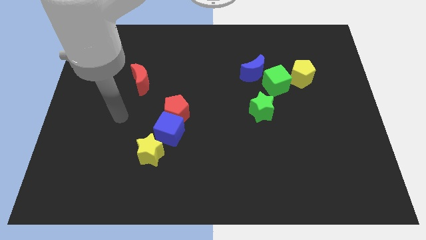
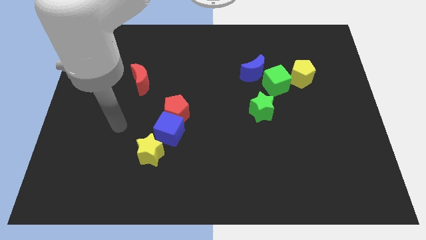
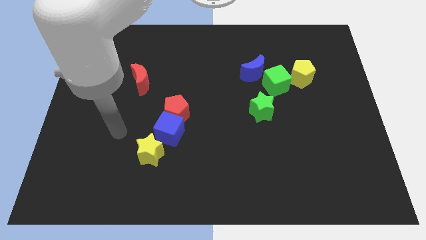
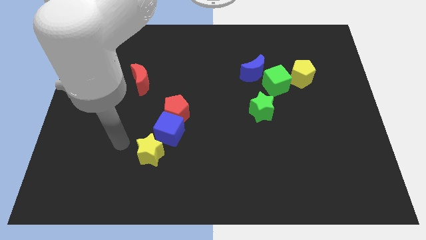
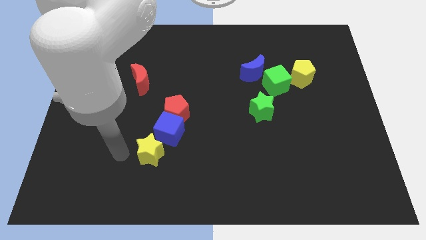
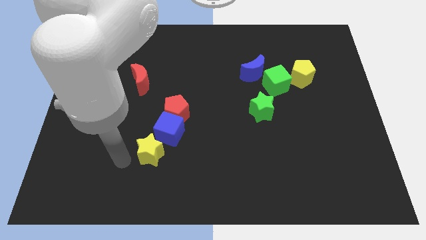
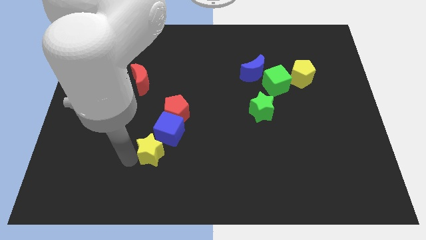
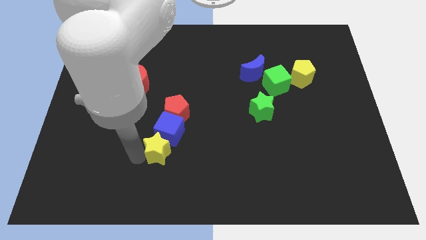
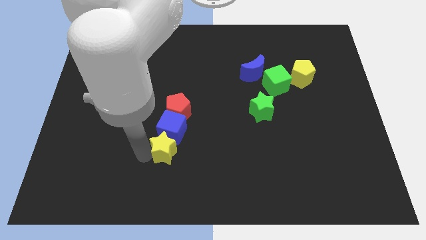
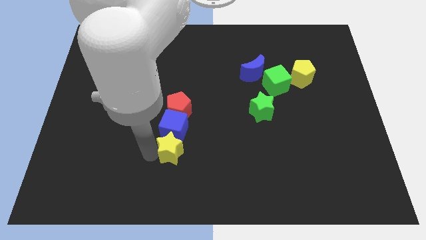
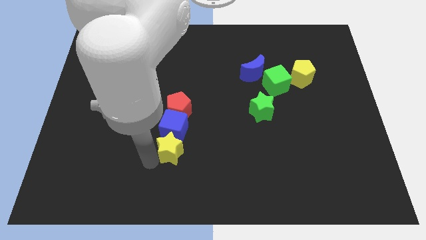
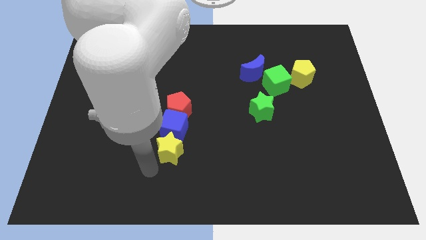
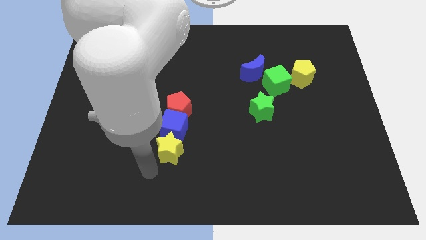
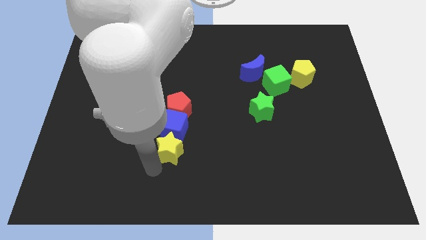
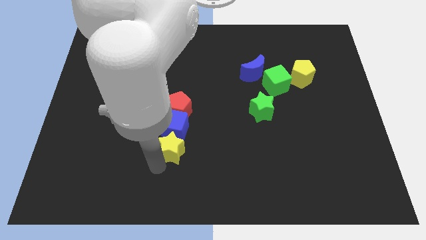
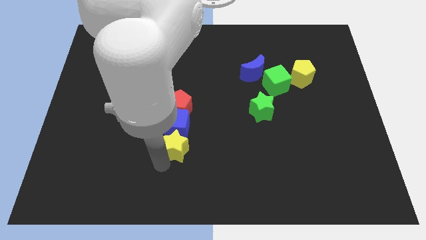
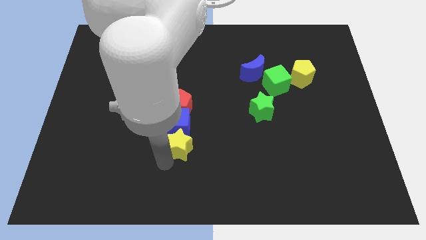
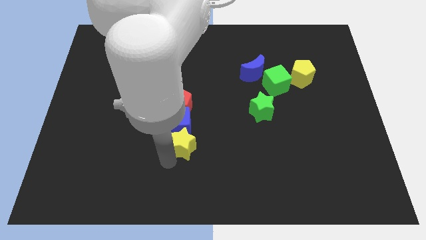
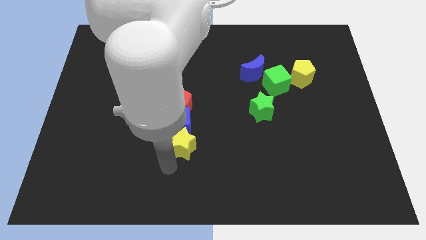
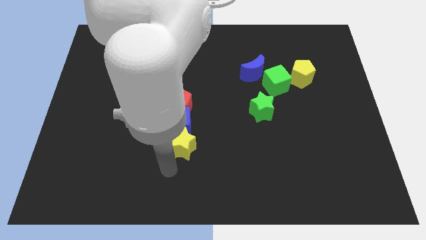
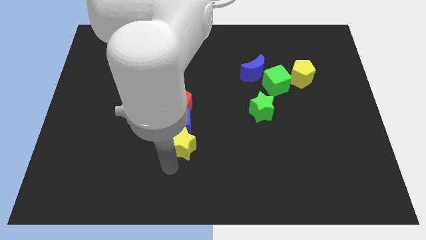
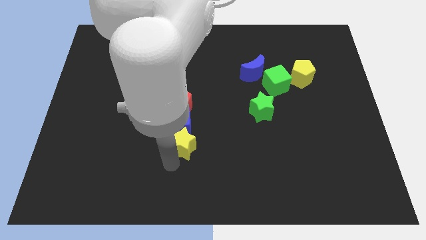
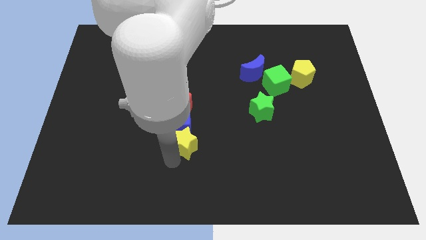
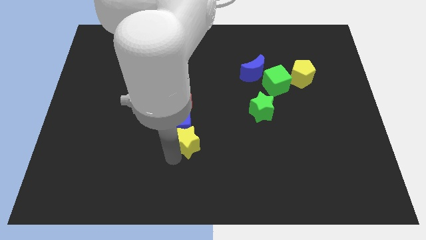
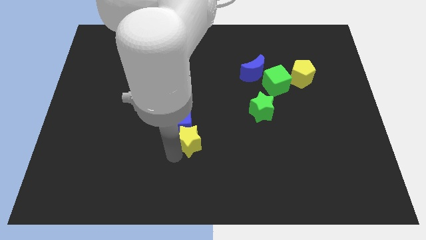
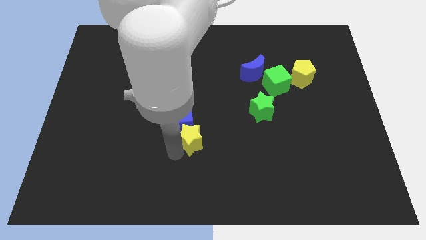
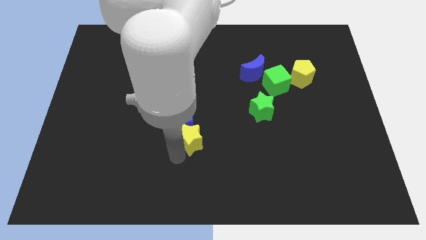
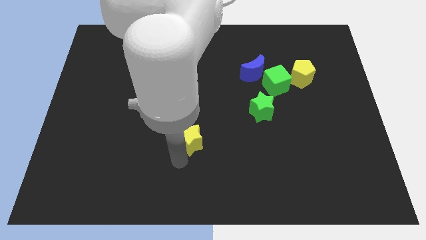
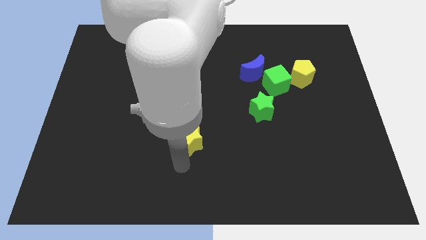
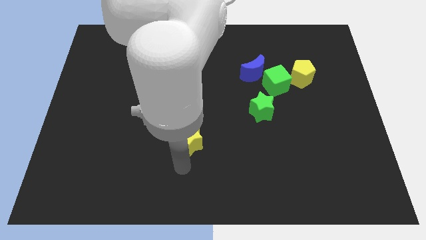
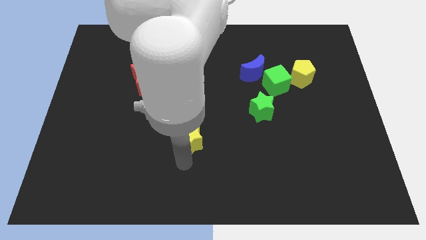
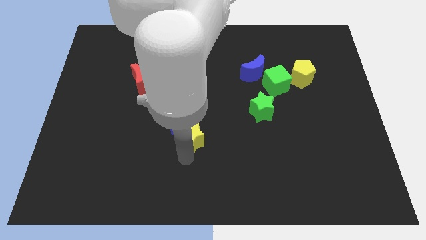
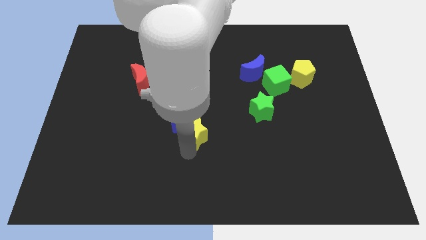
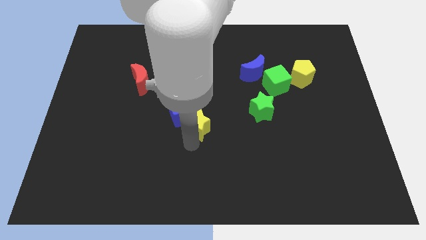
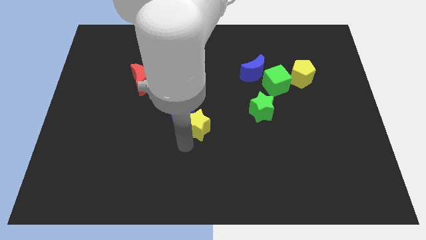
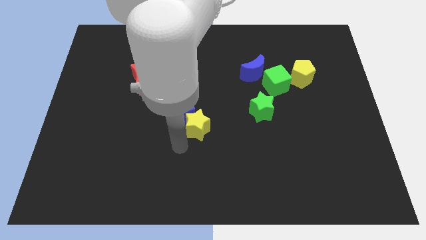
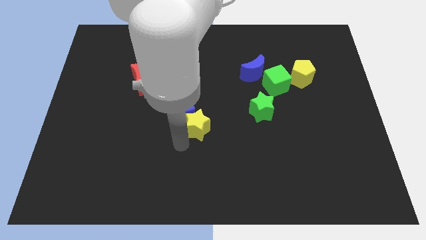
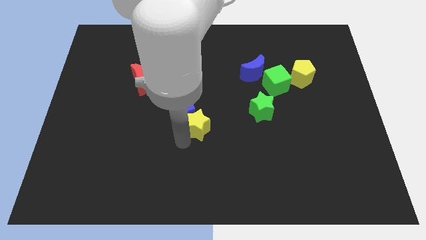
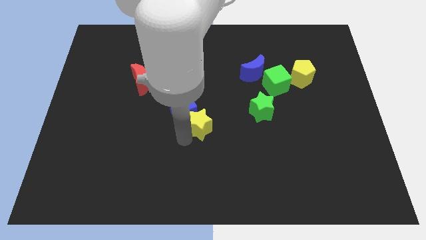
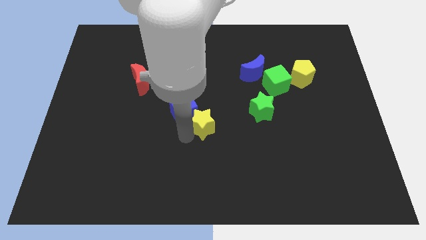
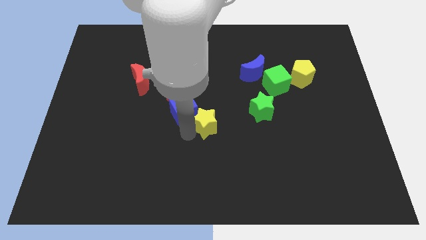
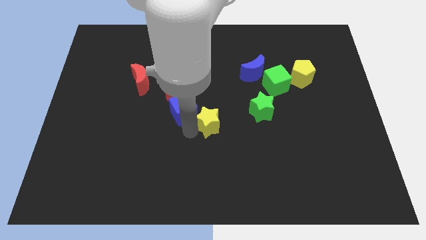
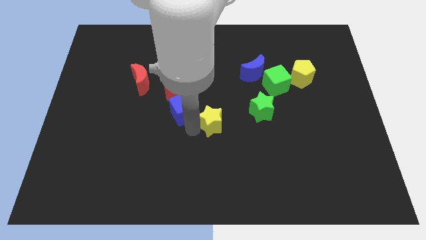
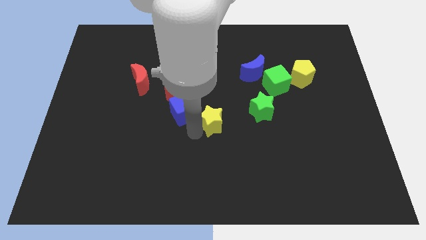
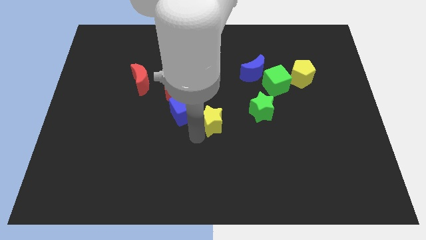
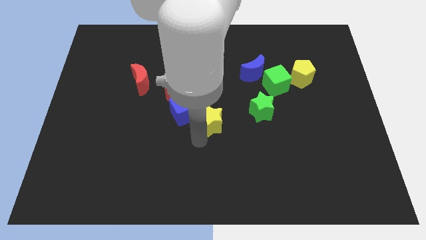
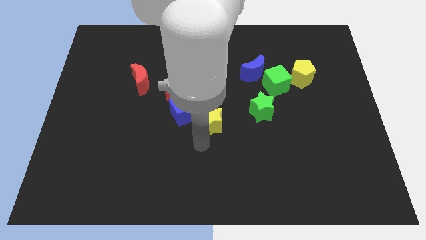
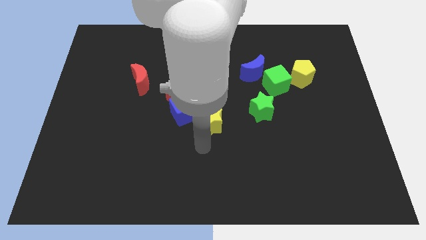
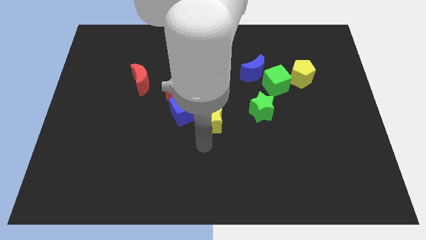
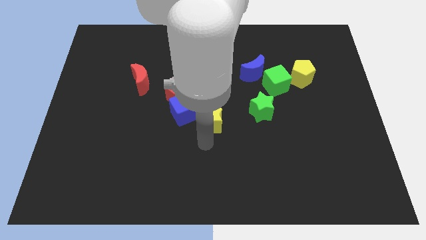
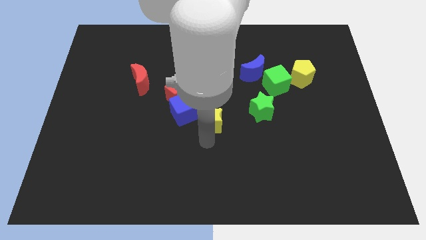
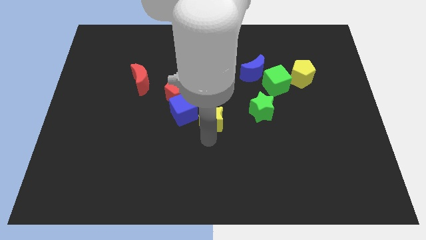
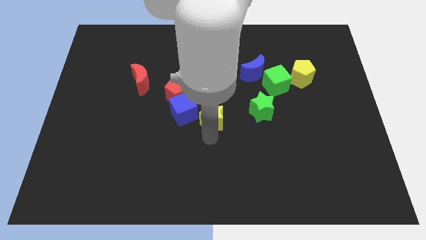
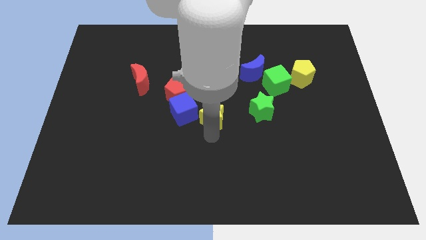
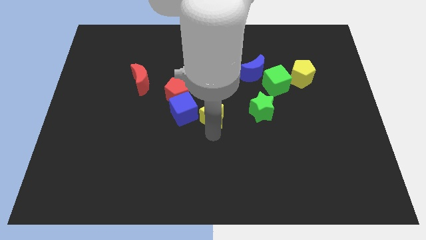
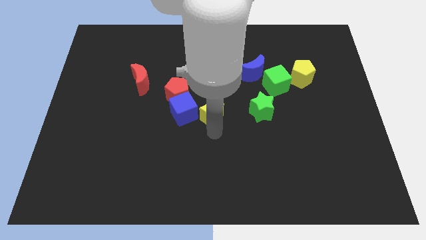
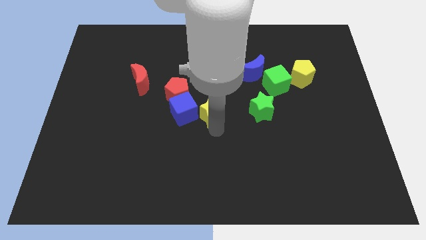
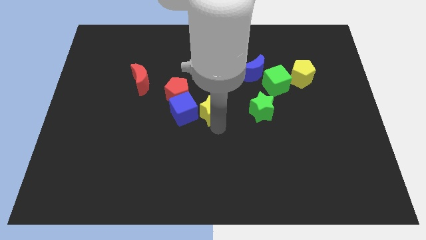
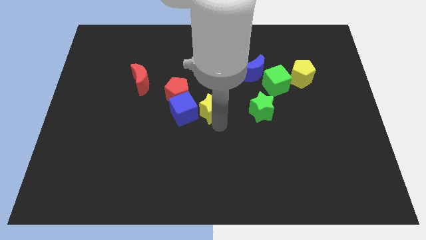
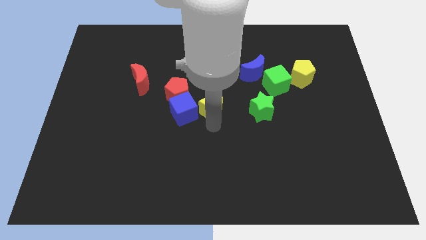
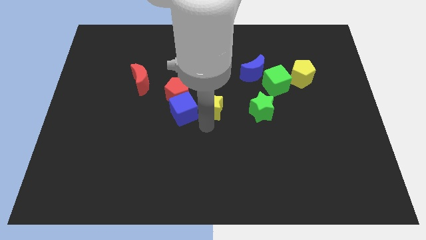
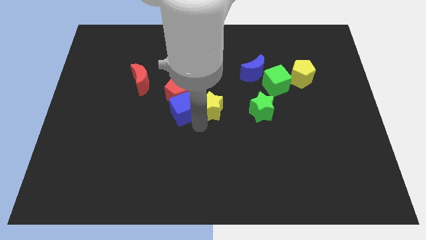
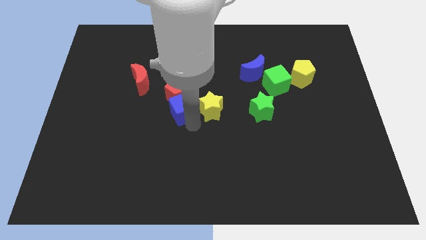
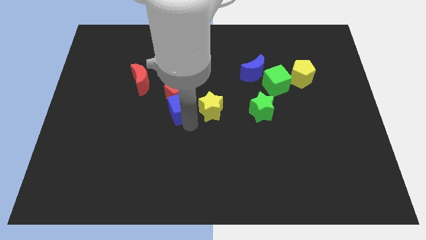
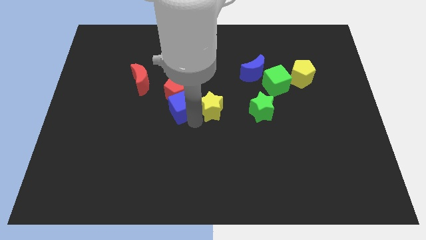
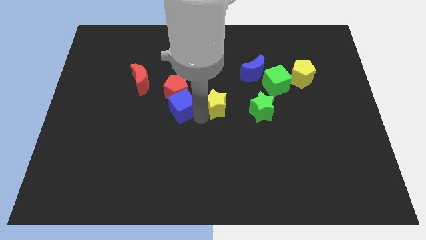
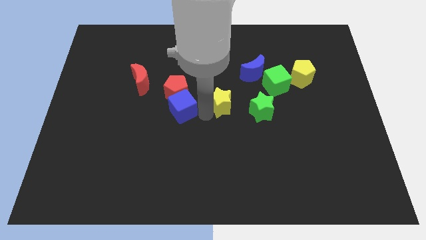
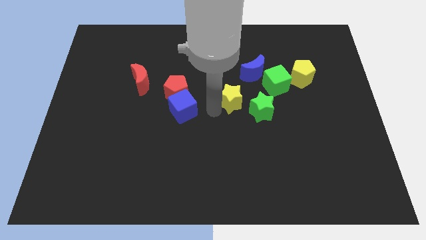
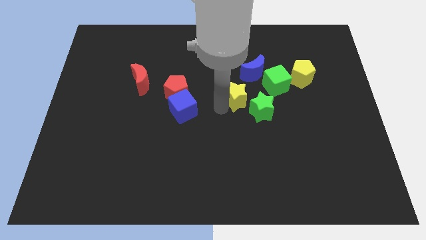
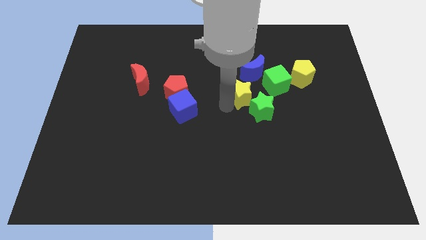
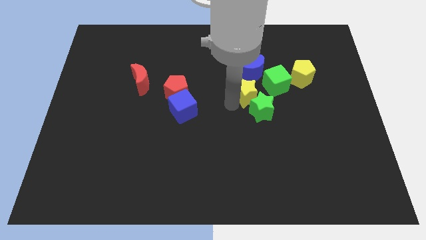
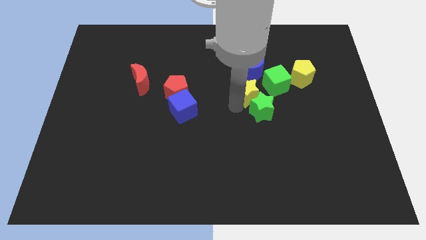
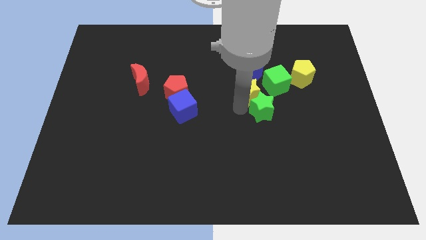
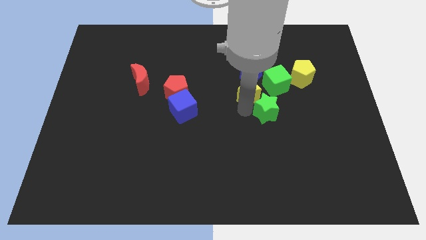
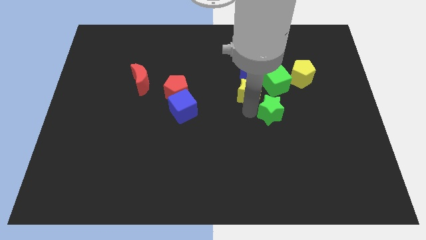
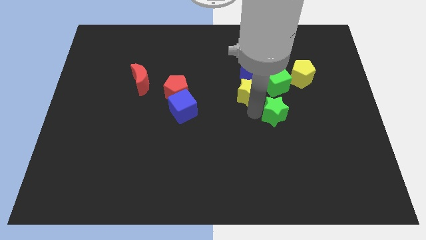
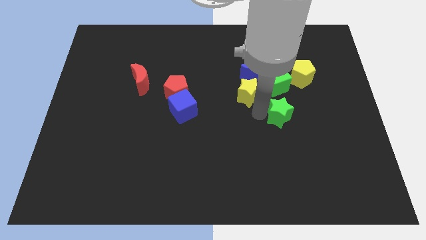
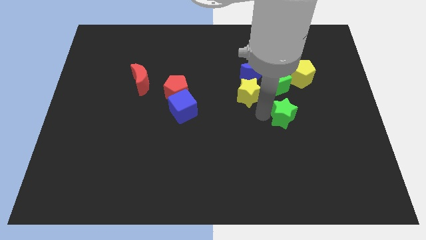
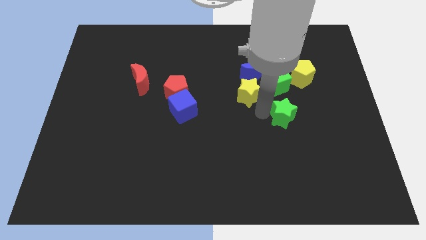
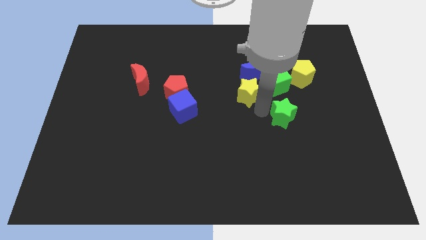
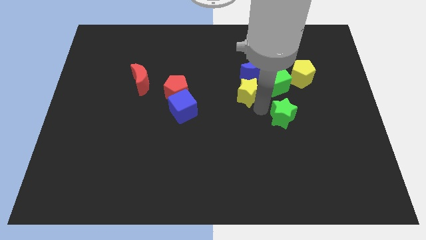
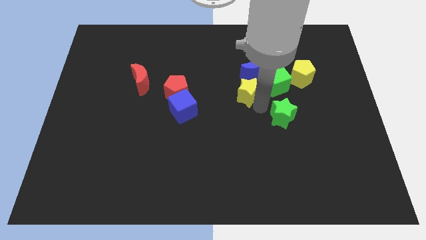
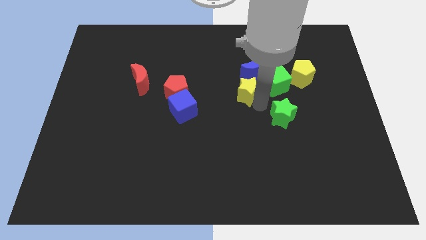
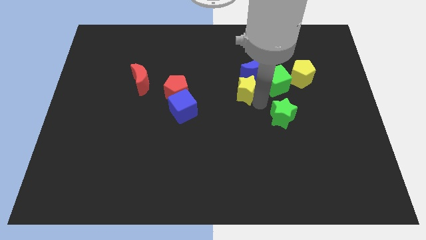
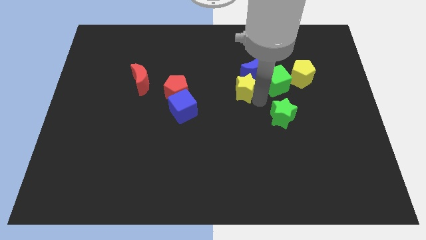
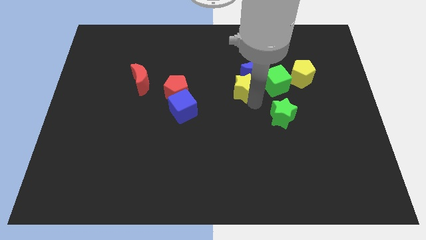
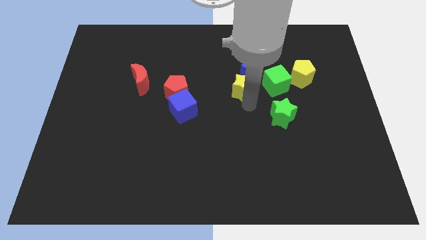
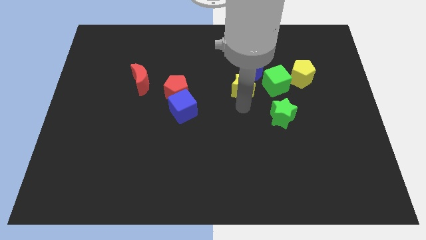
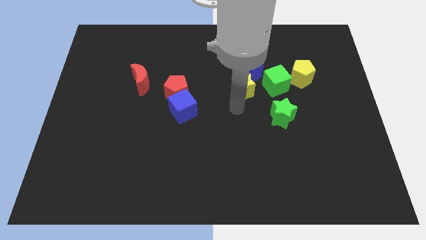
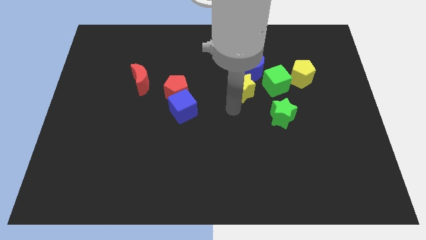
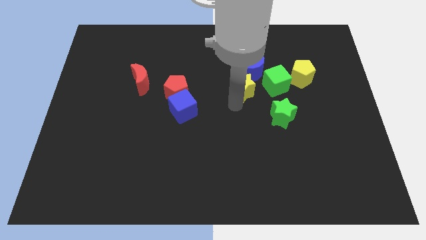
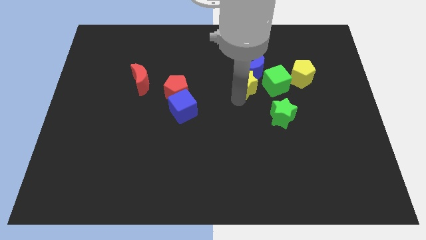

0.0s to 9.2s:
slide the yellow star to the blue moon
